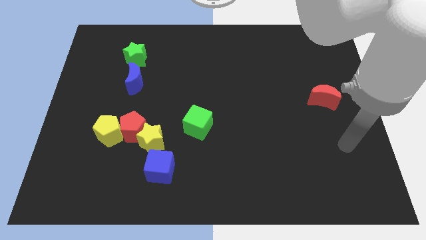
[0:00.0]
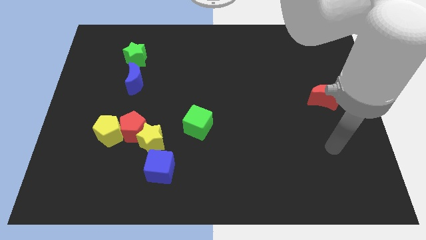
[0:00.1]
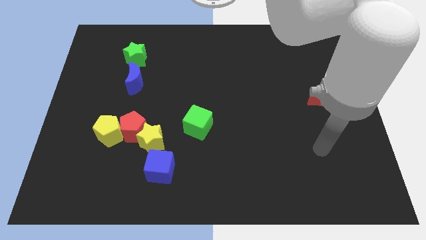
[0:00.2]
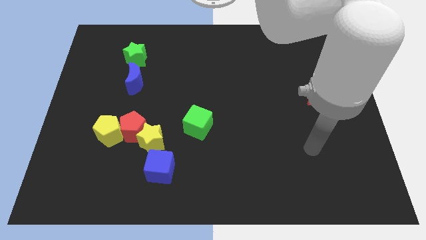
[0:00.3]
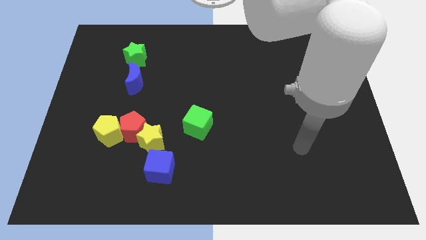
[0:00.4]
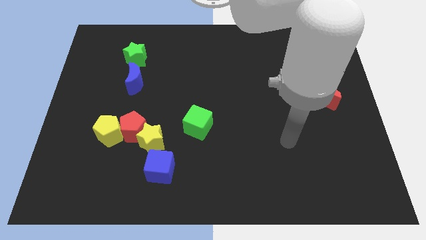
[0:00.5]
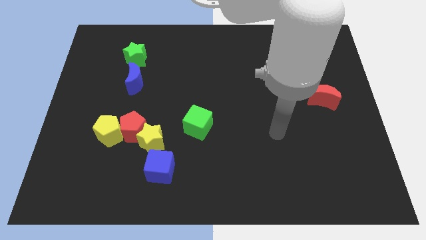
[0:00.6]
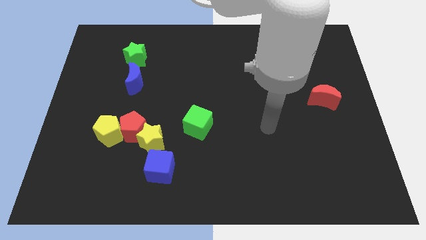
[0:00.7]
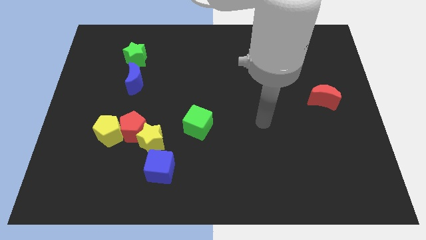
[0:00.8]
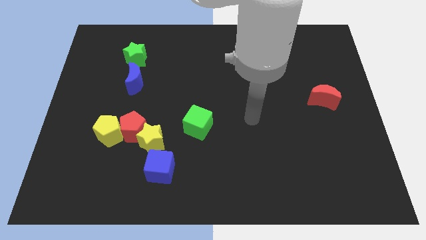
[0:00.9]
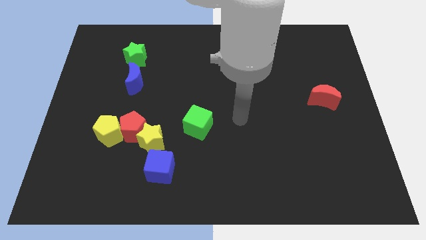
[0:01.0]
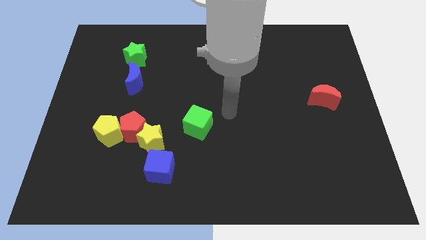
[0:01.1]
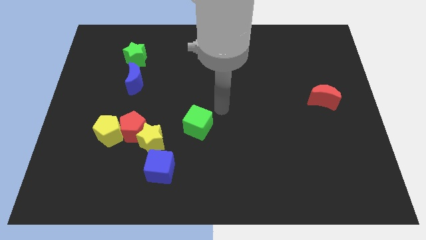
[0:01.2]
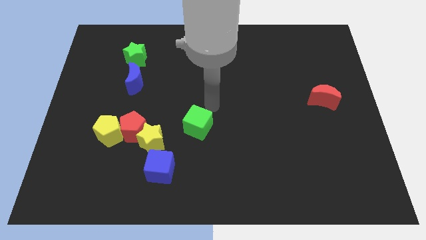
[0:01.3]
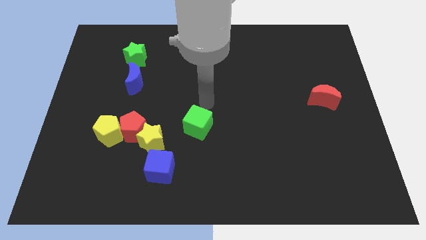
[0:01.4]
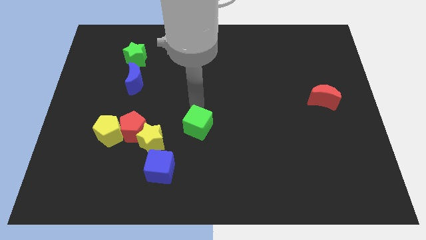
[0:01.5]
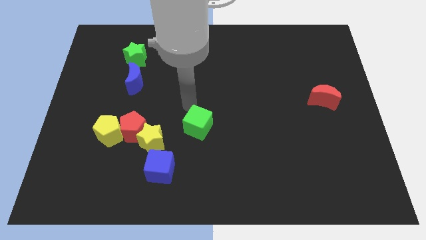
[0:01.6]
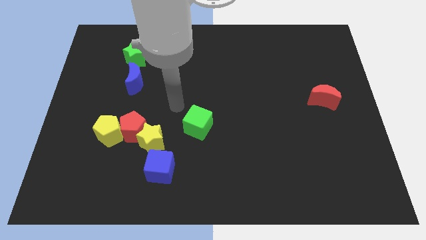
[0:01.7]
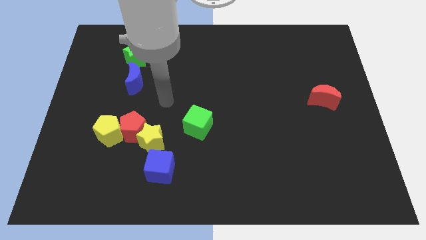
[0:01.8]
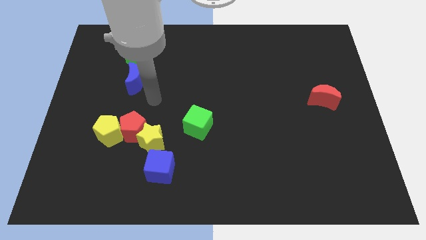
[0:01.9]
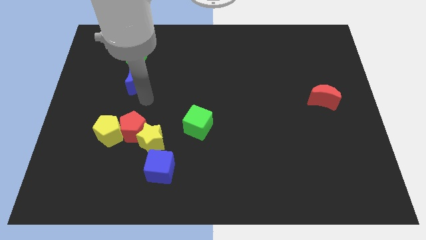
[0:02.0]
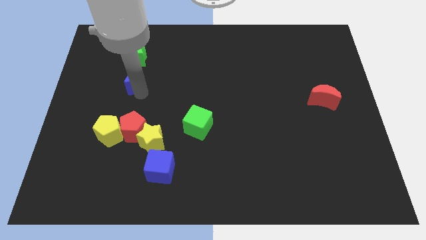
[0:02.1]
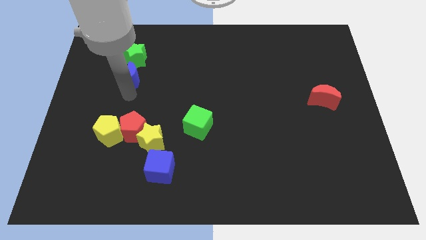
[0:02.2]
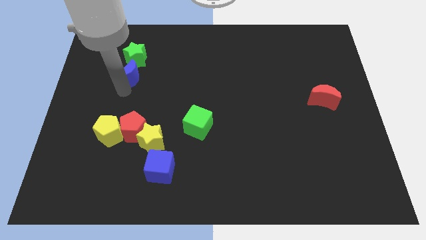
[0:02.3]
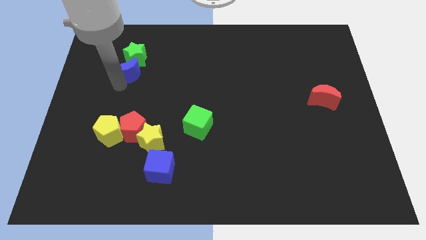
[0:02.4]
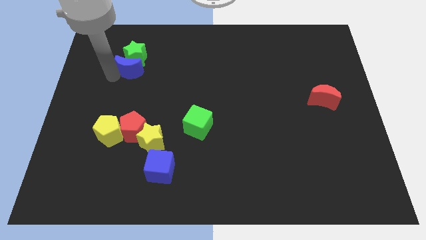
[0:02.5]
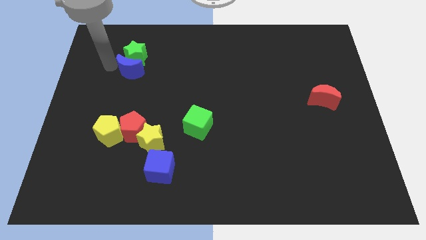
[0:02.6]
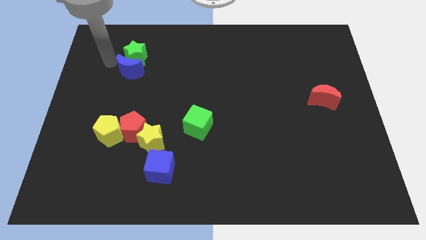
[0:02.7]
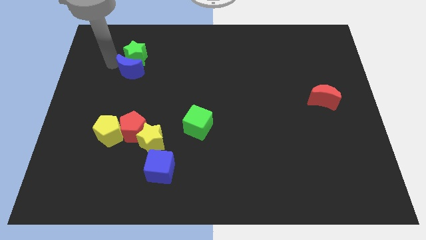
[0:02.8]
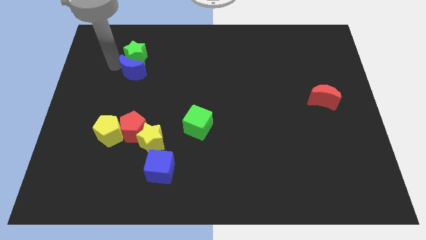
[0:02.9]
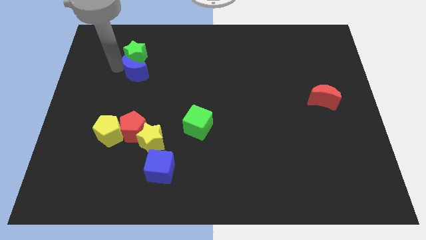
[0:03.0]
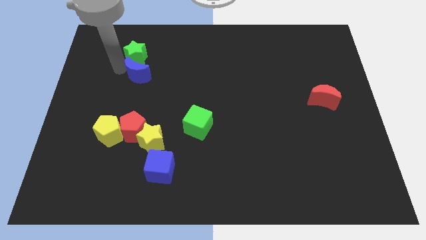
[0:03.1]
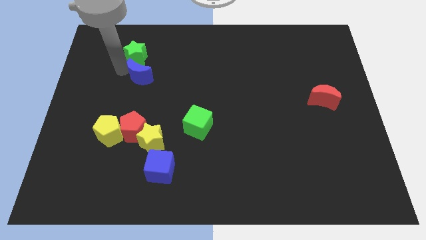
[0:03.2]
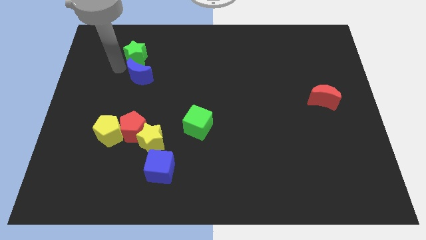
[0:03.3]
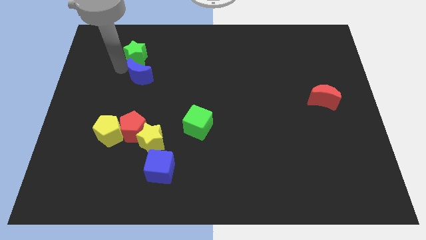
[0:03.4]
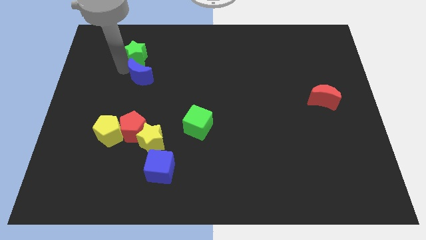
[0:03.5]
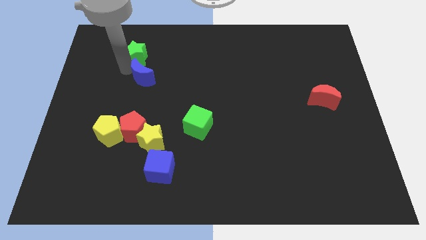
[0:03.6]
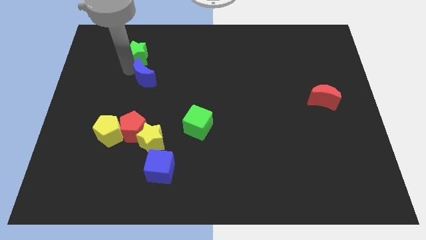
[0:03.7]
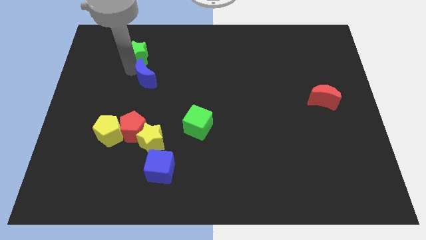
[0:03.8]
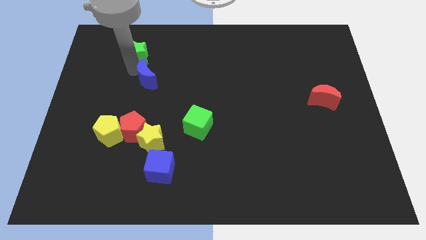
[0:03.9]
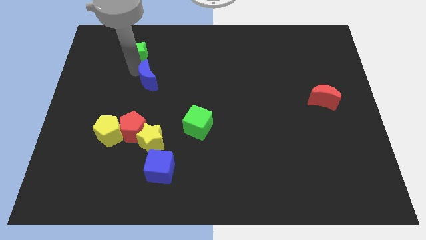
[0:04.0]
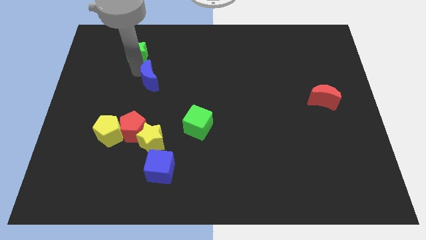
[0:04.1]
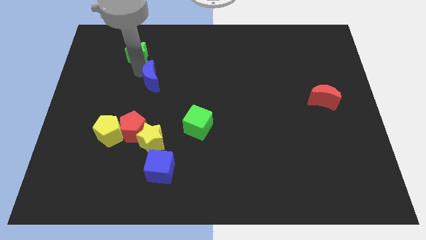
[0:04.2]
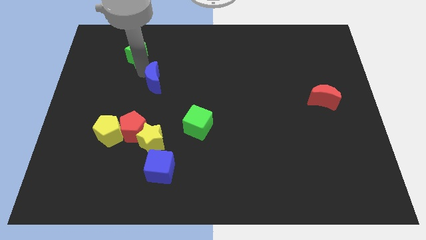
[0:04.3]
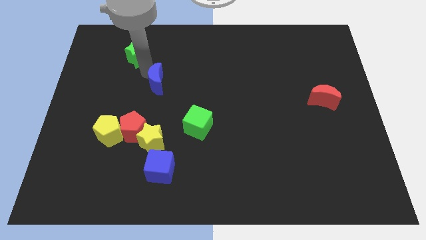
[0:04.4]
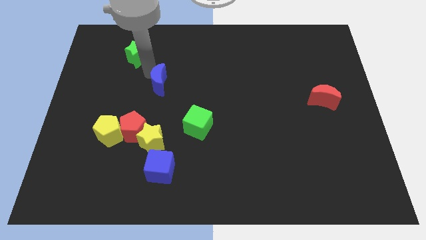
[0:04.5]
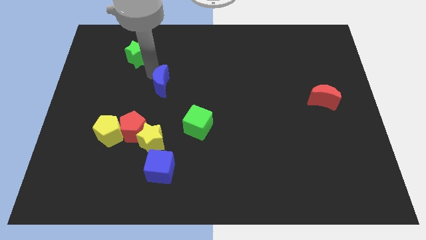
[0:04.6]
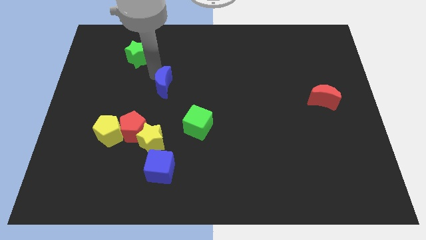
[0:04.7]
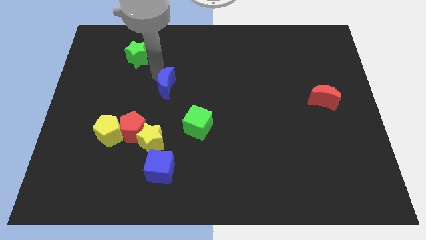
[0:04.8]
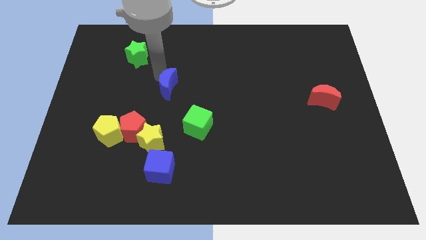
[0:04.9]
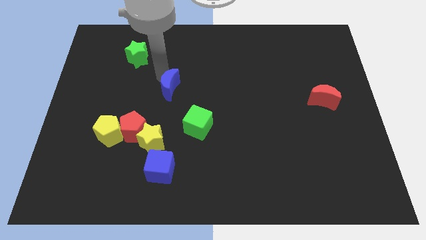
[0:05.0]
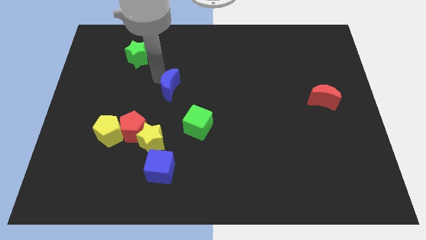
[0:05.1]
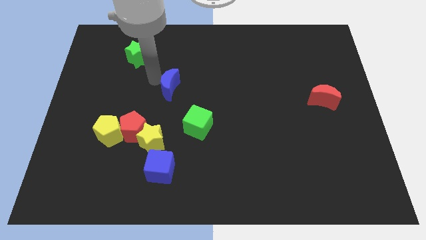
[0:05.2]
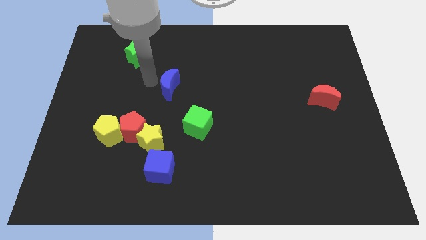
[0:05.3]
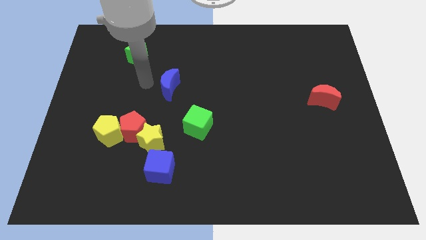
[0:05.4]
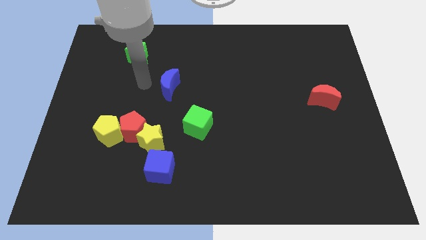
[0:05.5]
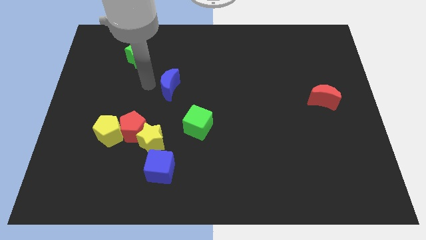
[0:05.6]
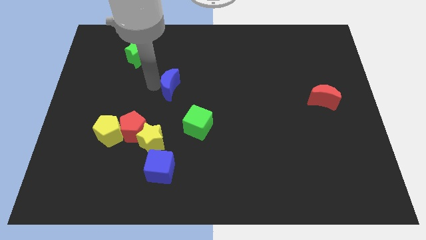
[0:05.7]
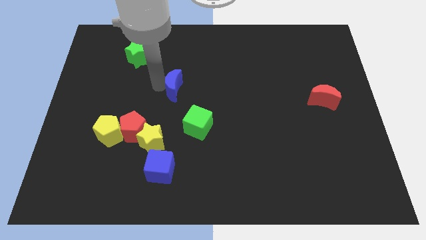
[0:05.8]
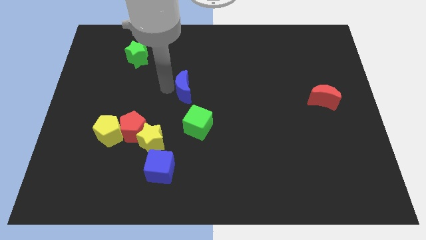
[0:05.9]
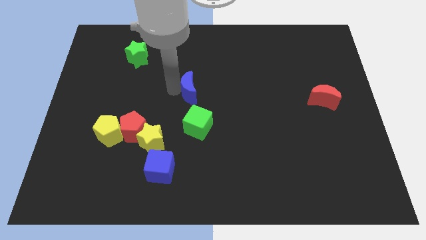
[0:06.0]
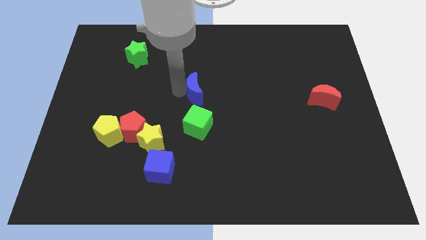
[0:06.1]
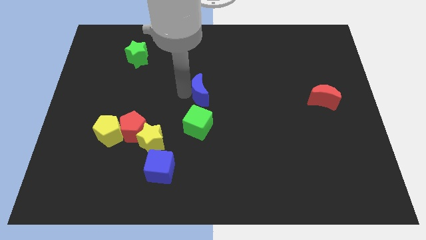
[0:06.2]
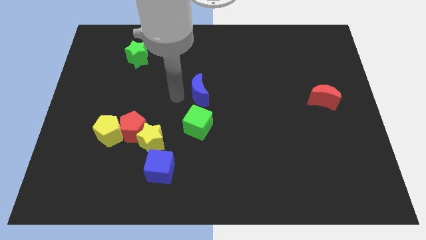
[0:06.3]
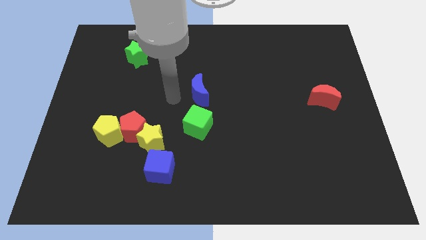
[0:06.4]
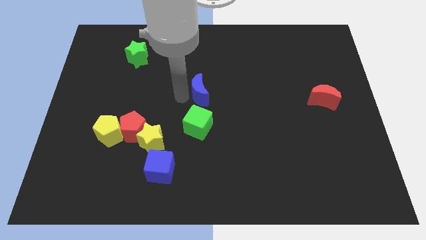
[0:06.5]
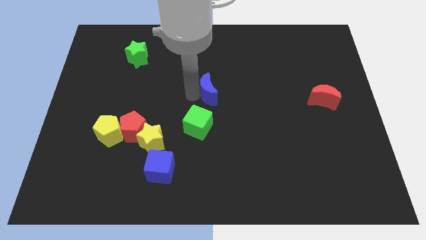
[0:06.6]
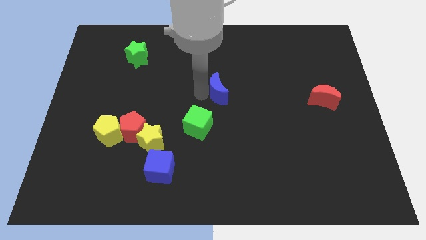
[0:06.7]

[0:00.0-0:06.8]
push the blue moon to the right

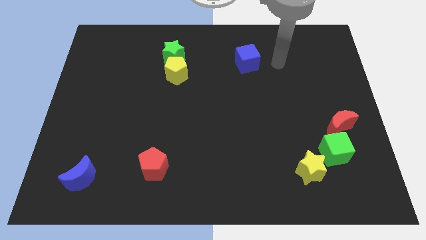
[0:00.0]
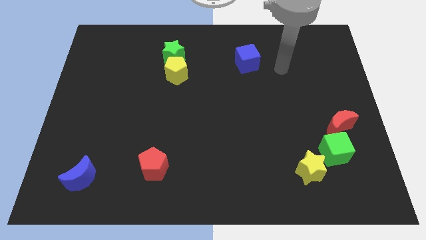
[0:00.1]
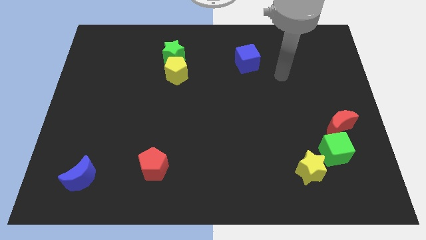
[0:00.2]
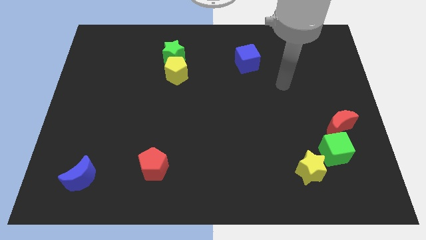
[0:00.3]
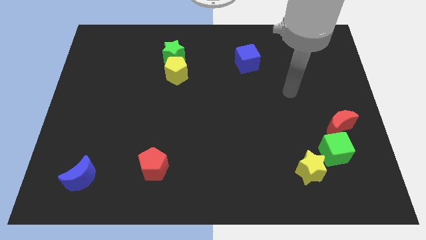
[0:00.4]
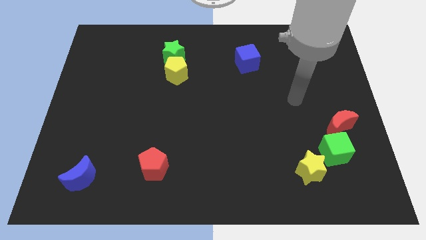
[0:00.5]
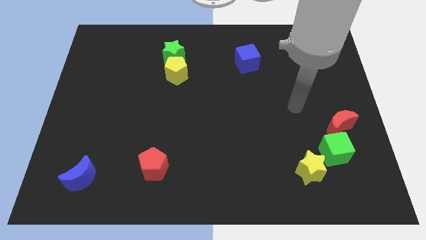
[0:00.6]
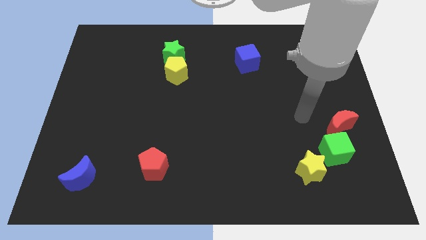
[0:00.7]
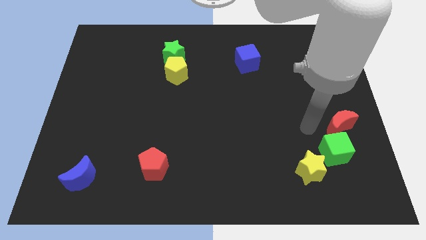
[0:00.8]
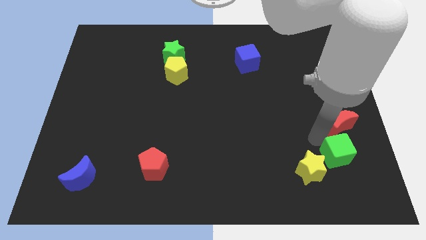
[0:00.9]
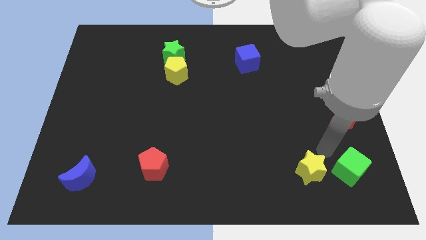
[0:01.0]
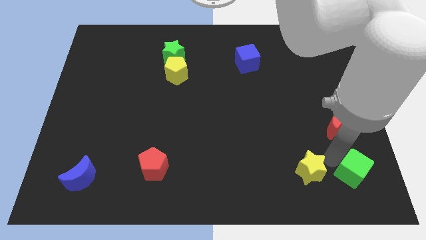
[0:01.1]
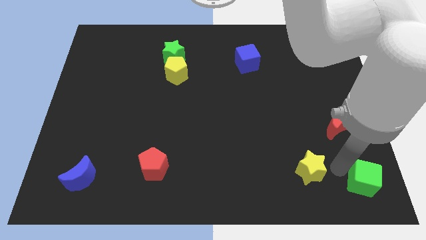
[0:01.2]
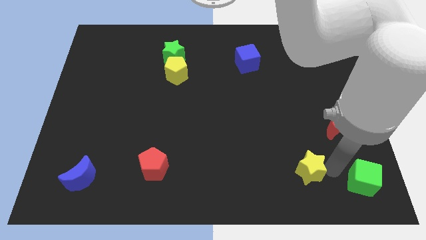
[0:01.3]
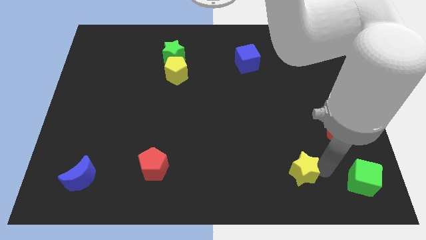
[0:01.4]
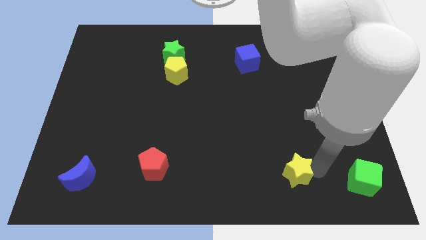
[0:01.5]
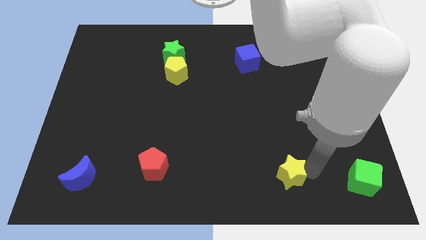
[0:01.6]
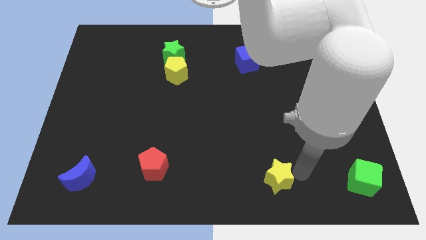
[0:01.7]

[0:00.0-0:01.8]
move the yellow star left somewhat
